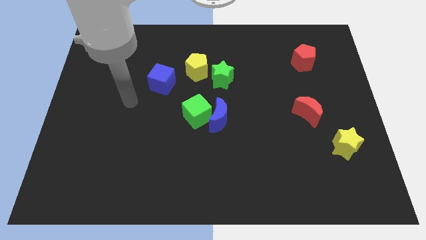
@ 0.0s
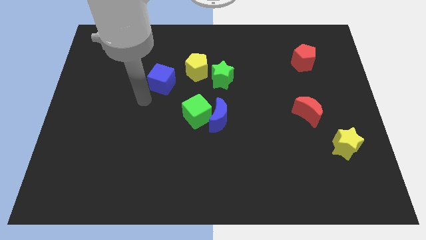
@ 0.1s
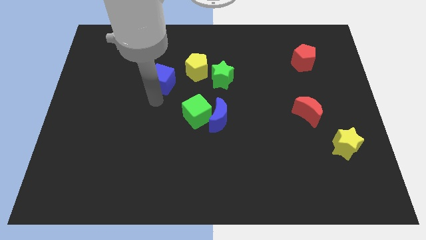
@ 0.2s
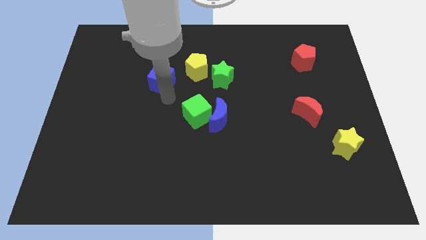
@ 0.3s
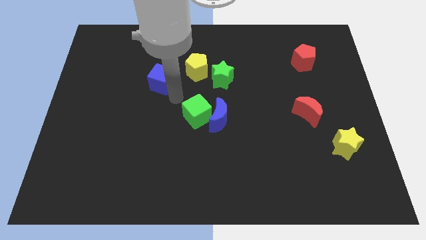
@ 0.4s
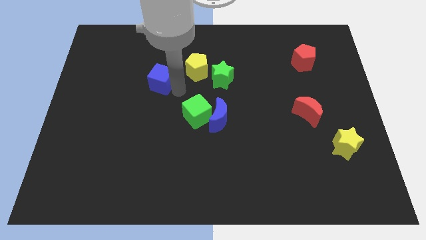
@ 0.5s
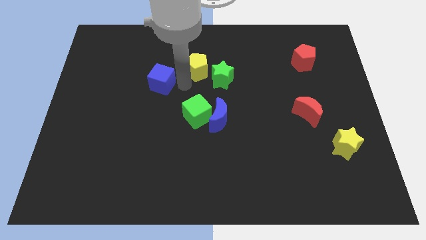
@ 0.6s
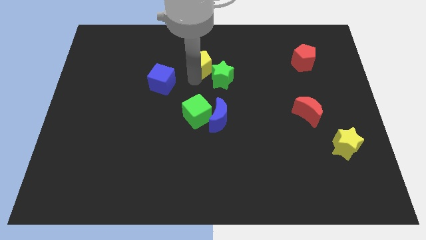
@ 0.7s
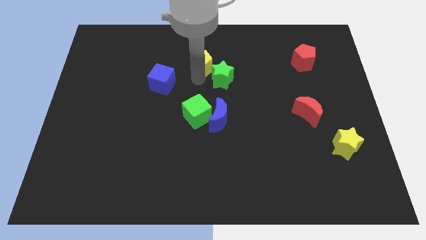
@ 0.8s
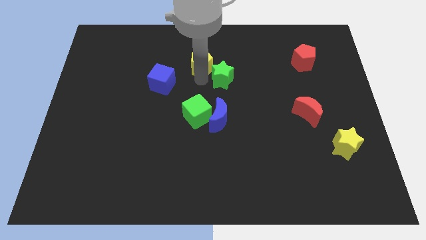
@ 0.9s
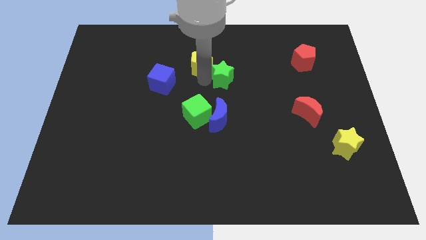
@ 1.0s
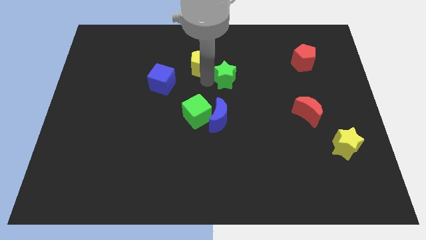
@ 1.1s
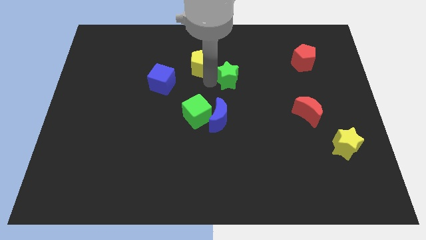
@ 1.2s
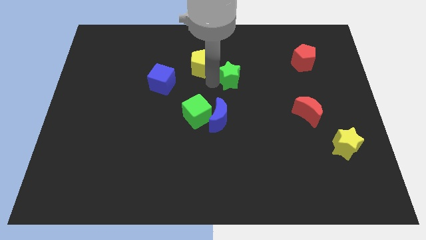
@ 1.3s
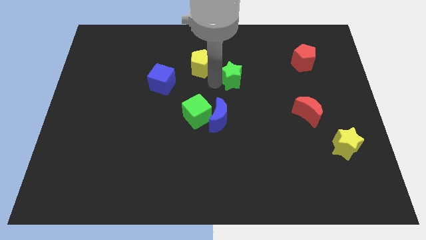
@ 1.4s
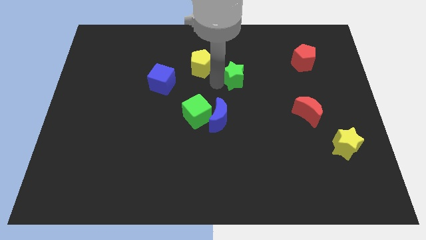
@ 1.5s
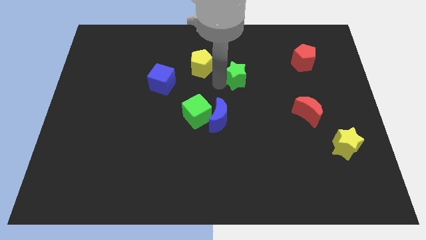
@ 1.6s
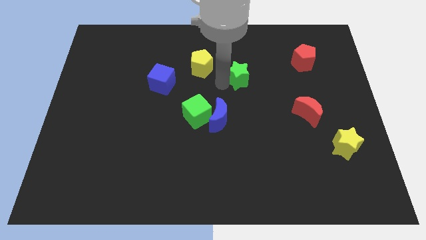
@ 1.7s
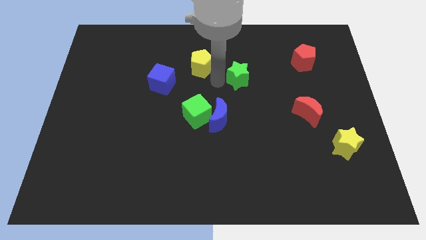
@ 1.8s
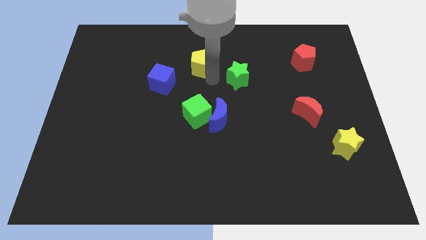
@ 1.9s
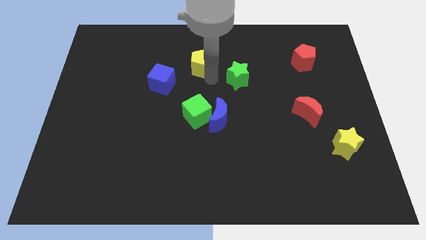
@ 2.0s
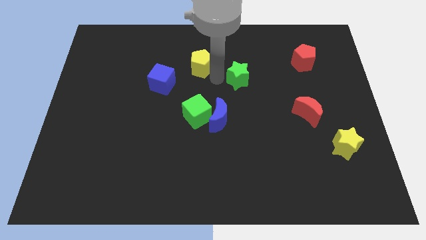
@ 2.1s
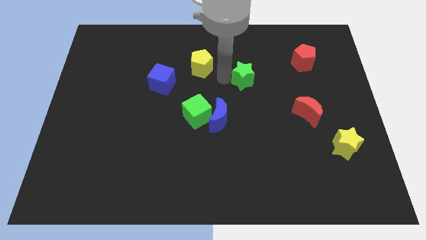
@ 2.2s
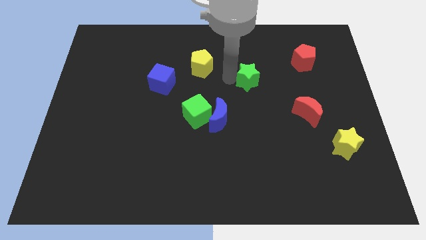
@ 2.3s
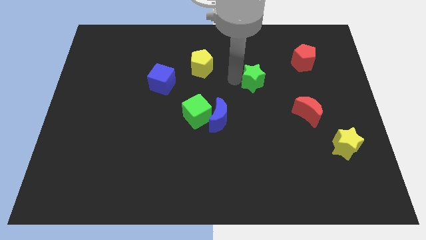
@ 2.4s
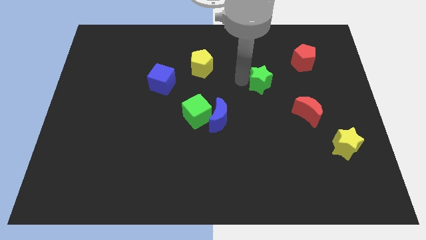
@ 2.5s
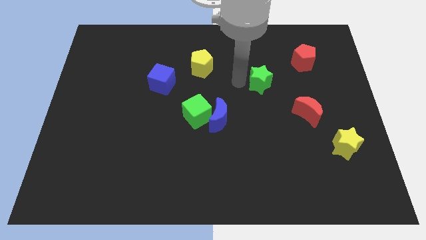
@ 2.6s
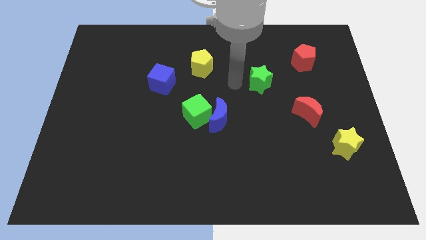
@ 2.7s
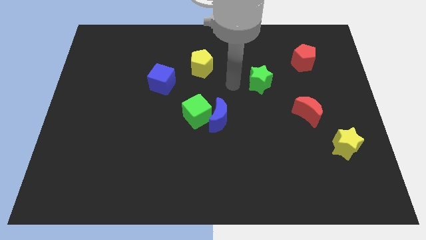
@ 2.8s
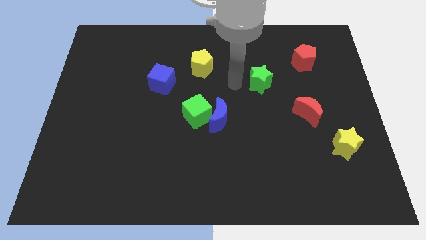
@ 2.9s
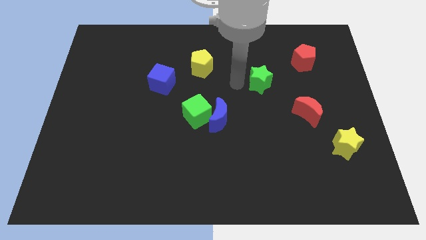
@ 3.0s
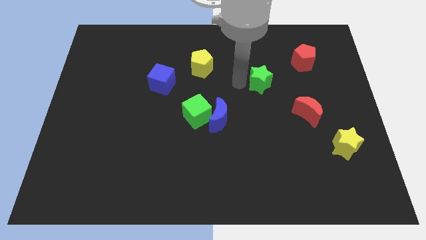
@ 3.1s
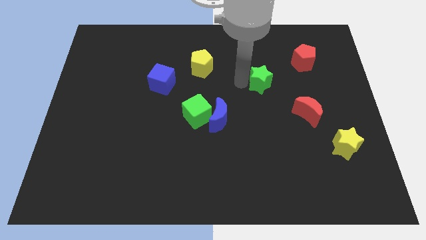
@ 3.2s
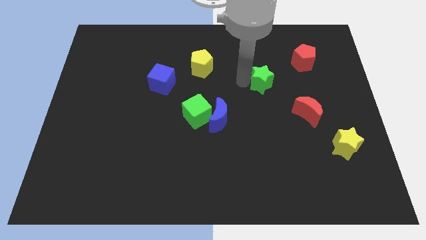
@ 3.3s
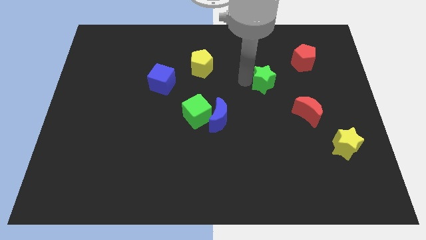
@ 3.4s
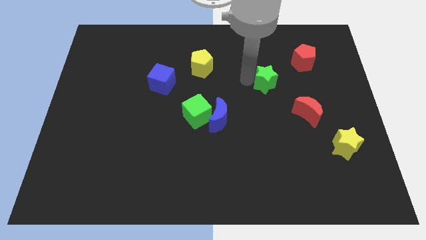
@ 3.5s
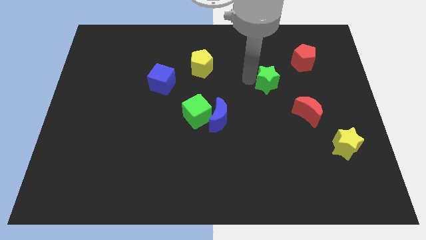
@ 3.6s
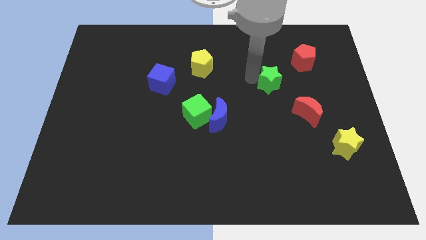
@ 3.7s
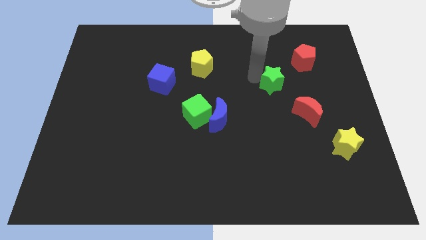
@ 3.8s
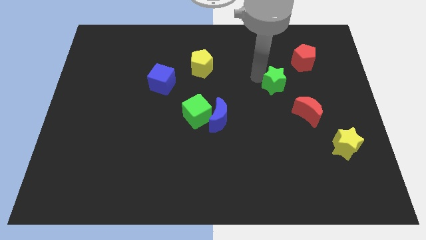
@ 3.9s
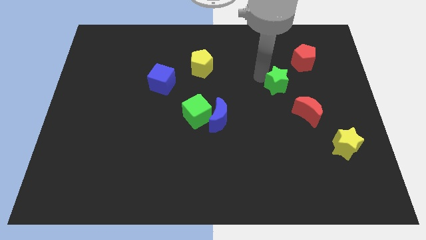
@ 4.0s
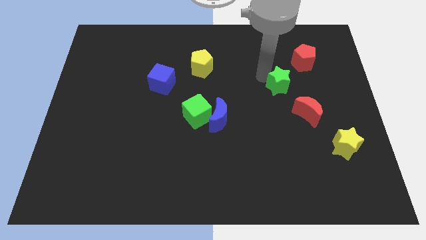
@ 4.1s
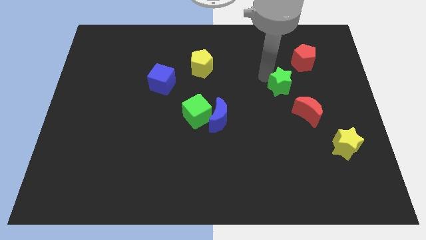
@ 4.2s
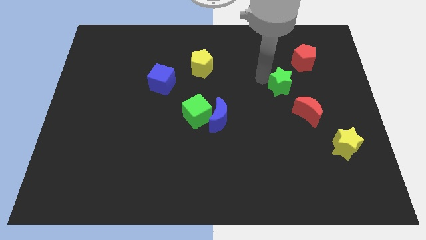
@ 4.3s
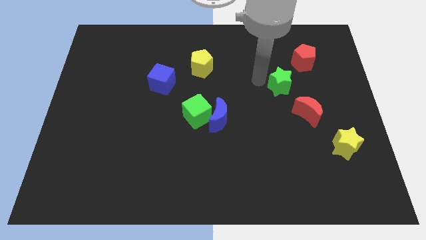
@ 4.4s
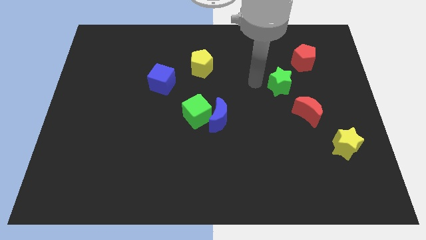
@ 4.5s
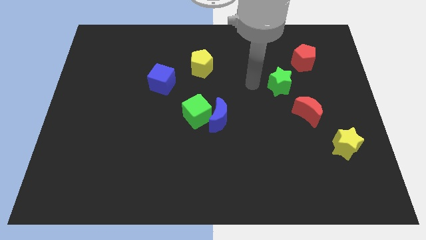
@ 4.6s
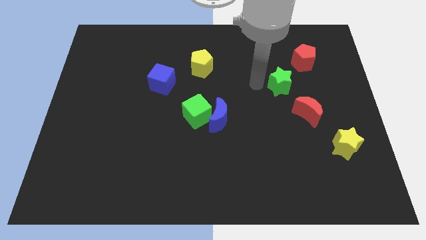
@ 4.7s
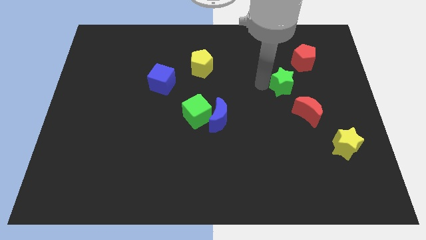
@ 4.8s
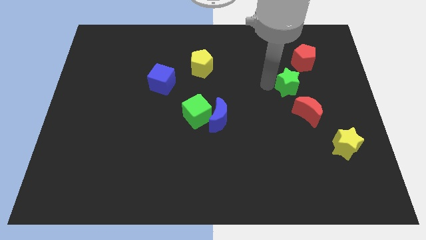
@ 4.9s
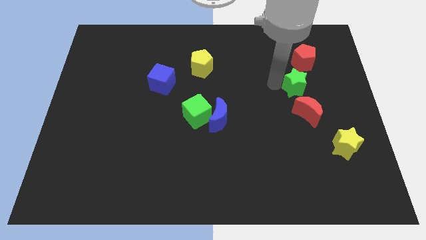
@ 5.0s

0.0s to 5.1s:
push the green star to the bottom of the red pentagon

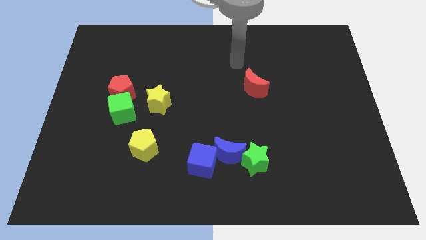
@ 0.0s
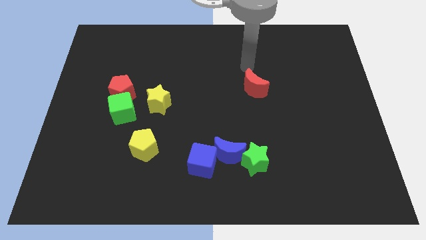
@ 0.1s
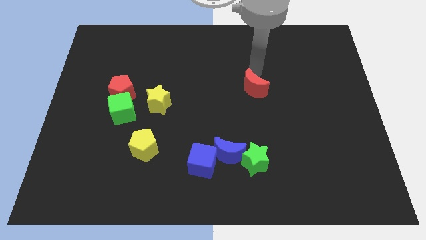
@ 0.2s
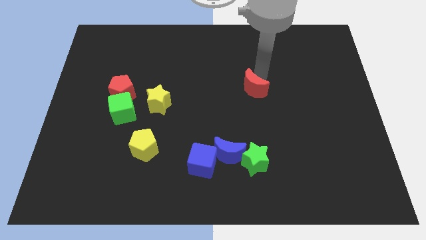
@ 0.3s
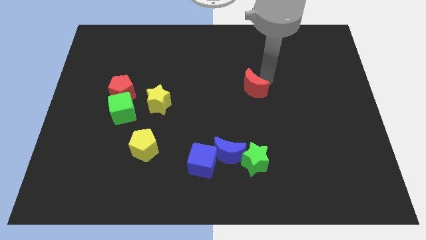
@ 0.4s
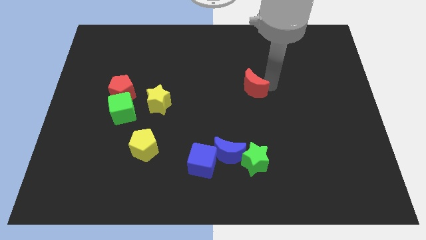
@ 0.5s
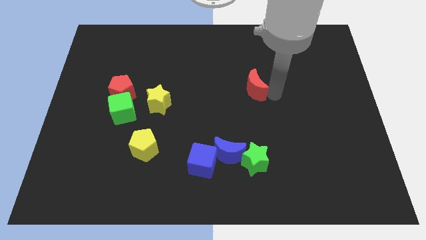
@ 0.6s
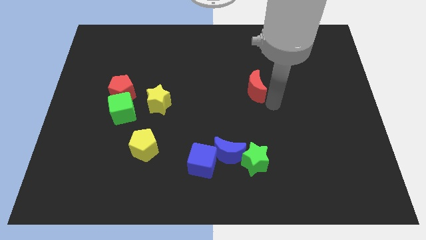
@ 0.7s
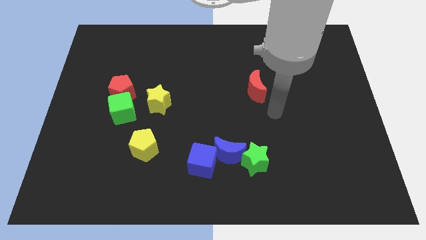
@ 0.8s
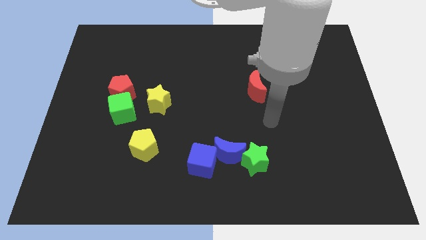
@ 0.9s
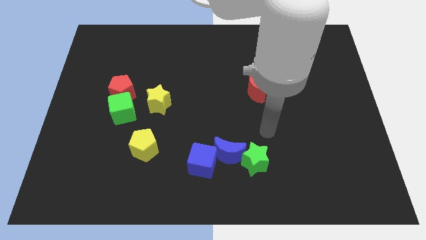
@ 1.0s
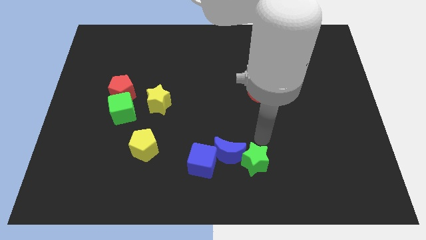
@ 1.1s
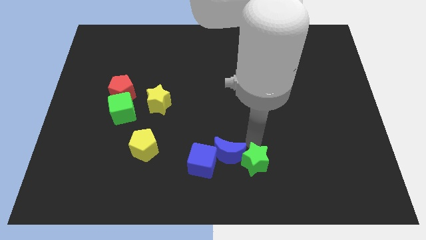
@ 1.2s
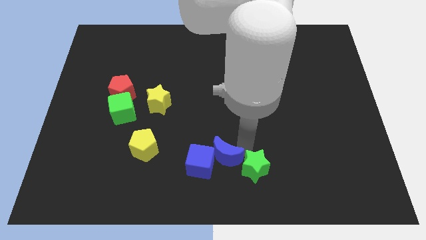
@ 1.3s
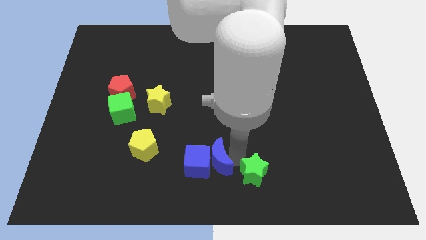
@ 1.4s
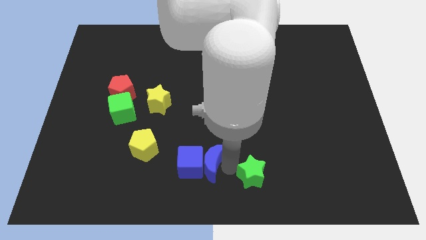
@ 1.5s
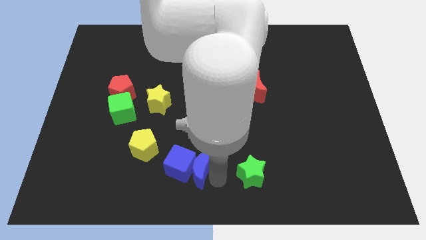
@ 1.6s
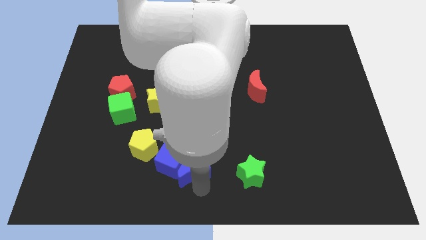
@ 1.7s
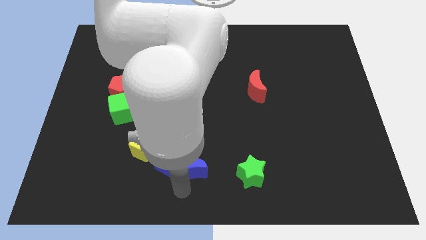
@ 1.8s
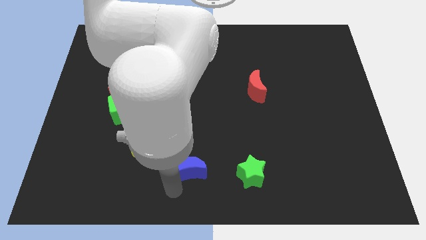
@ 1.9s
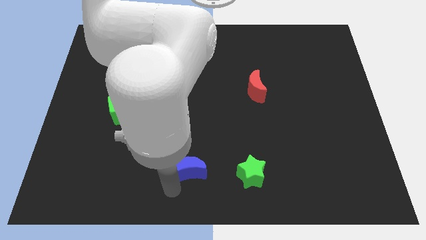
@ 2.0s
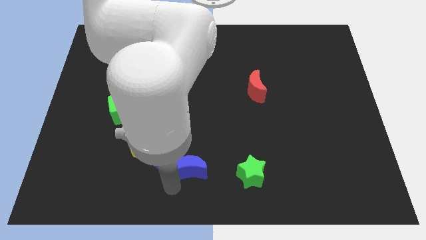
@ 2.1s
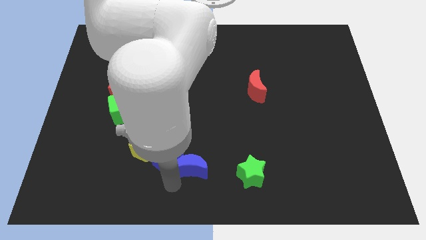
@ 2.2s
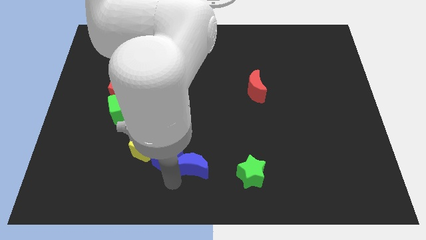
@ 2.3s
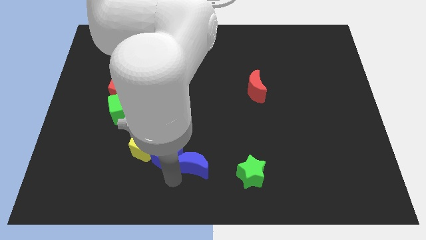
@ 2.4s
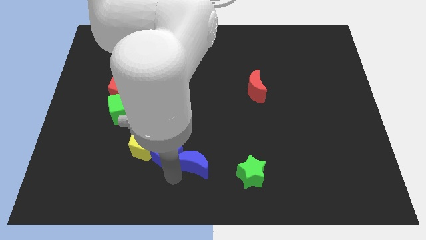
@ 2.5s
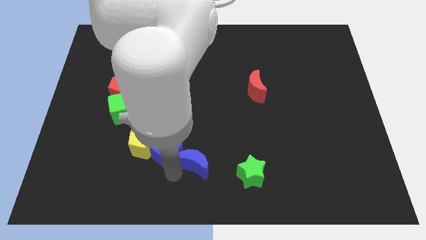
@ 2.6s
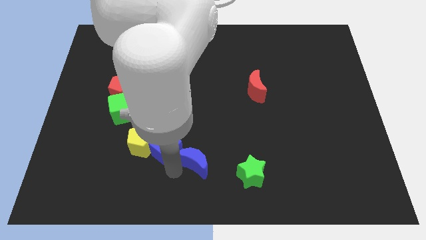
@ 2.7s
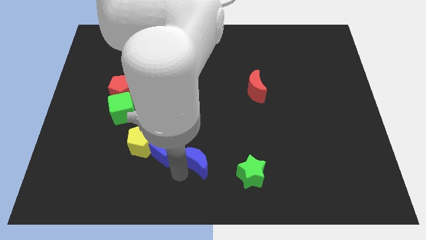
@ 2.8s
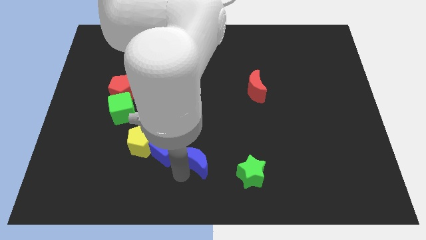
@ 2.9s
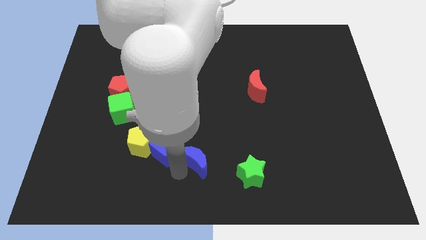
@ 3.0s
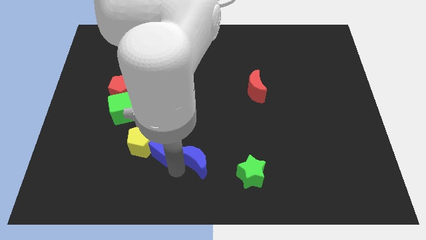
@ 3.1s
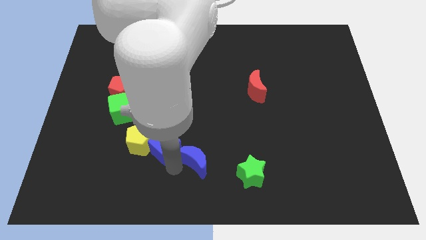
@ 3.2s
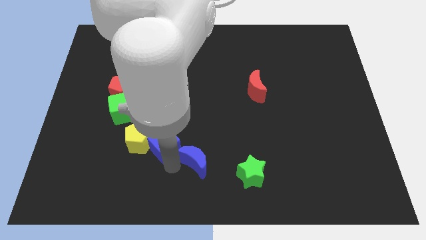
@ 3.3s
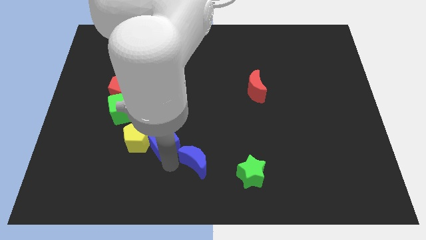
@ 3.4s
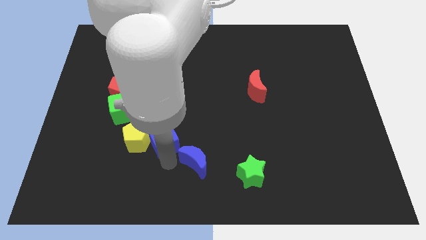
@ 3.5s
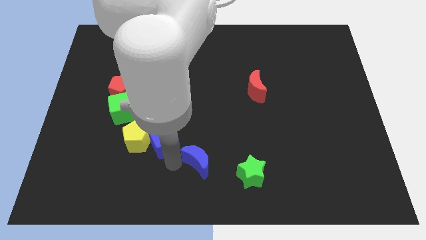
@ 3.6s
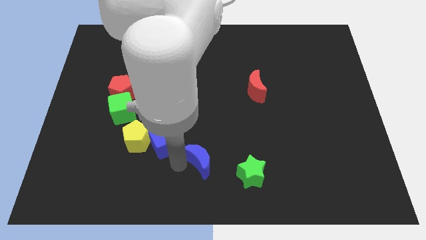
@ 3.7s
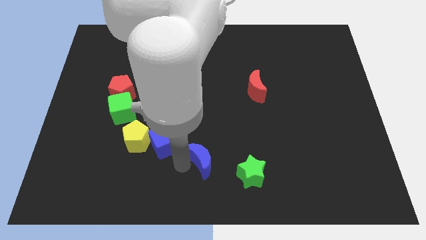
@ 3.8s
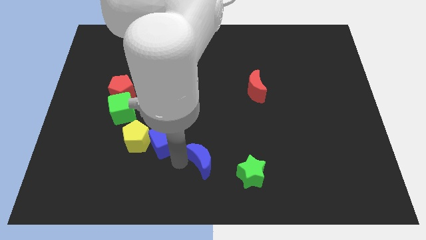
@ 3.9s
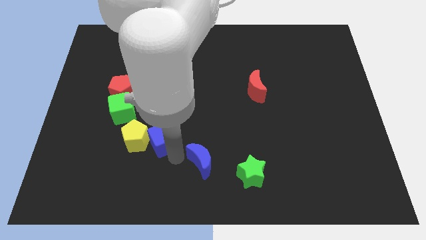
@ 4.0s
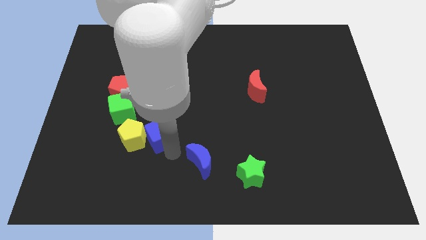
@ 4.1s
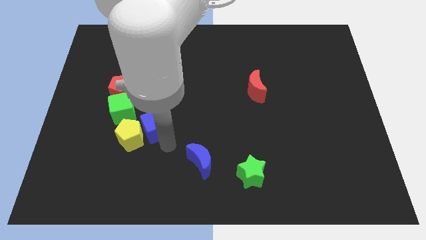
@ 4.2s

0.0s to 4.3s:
push the blue cube to the bottom left side of the yellow star
